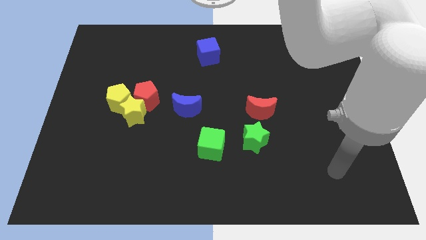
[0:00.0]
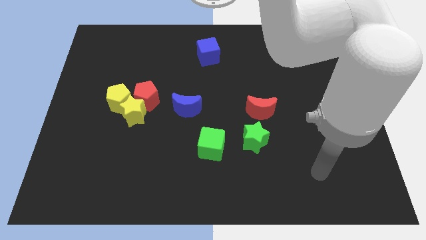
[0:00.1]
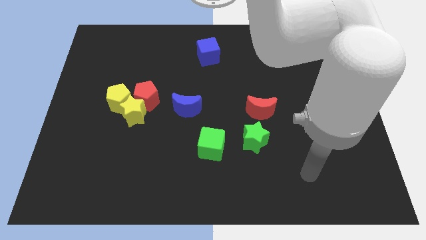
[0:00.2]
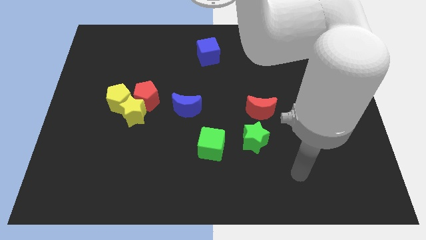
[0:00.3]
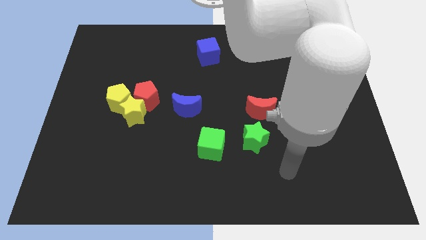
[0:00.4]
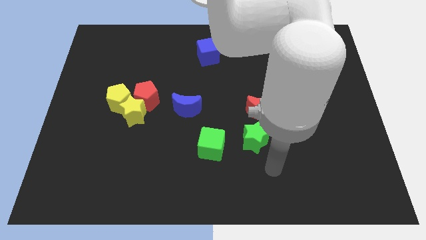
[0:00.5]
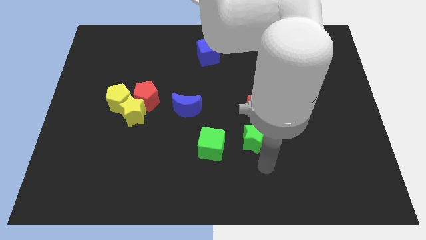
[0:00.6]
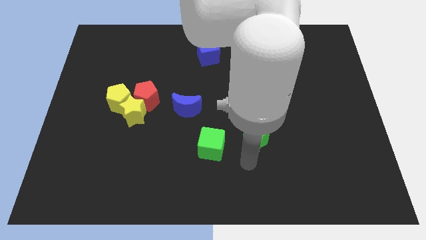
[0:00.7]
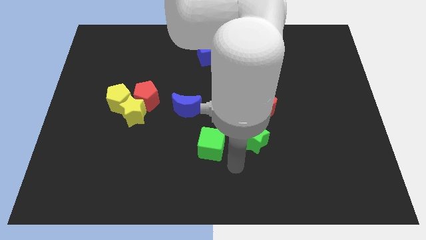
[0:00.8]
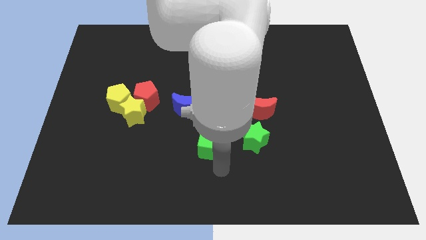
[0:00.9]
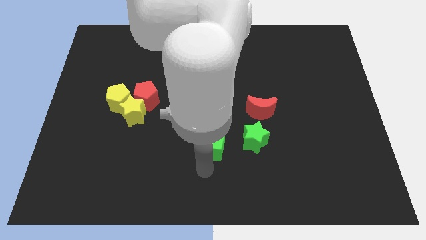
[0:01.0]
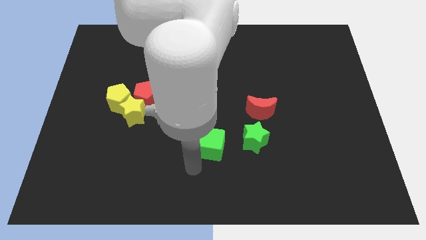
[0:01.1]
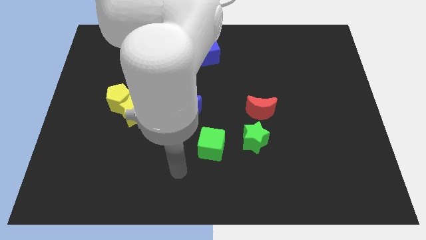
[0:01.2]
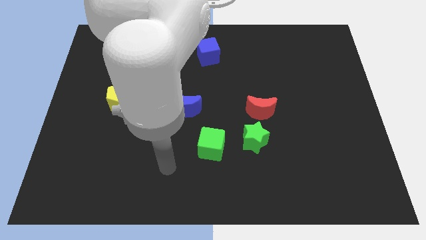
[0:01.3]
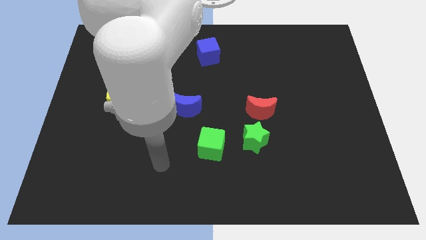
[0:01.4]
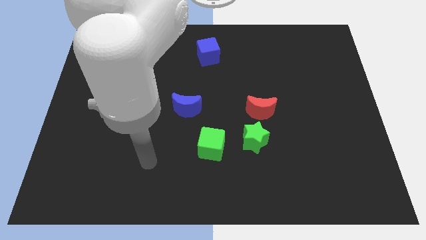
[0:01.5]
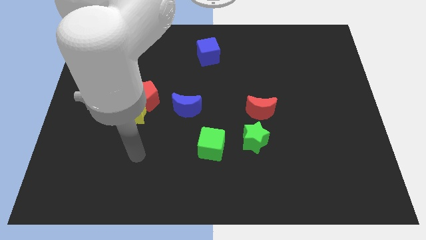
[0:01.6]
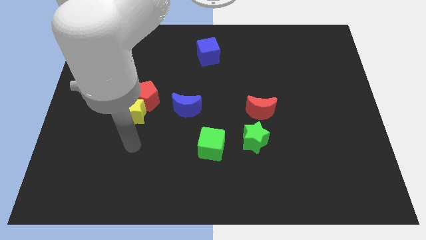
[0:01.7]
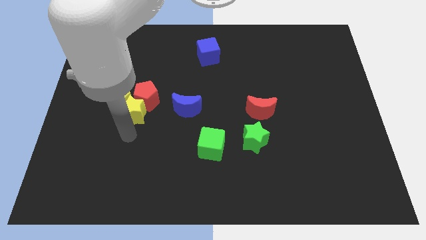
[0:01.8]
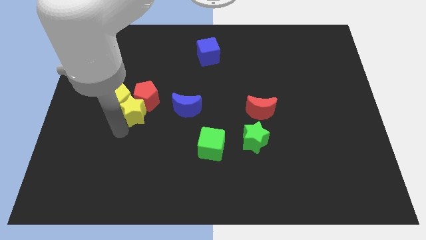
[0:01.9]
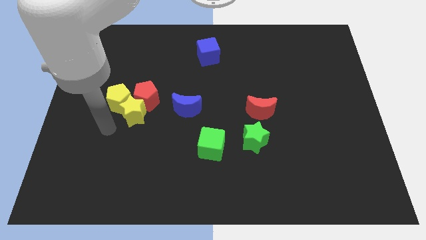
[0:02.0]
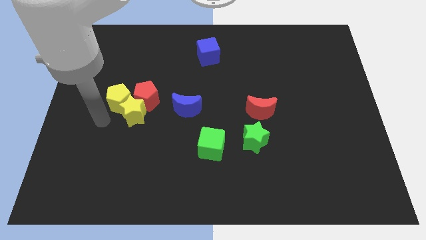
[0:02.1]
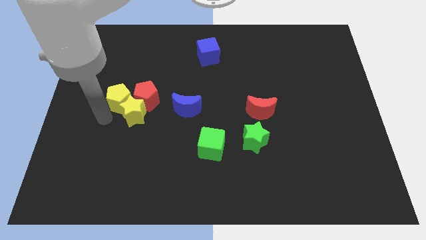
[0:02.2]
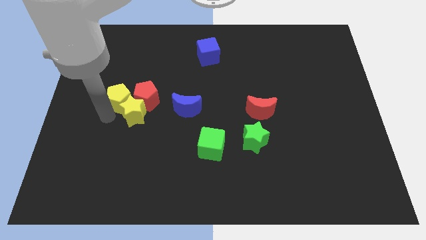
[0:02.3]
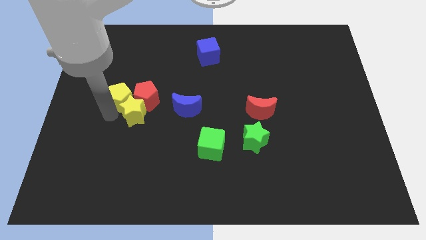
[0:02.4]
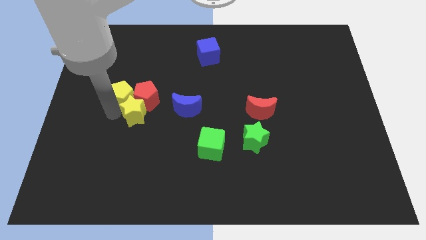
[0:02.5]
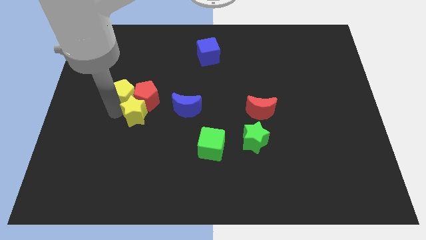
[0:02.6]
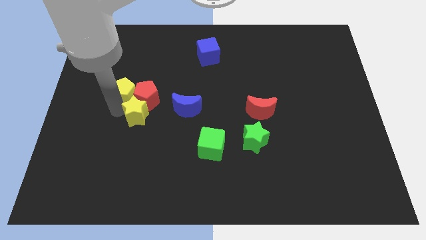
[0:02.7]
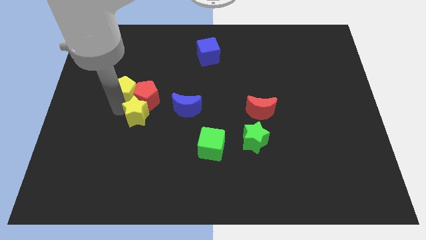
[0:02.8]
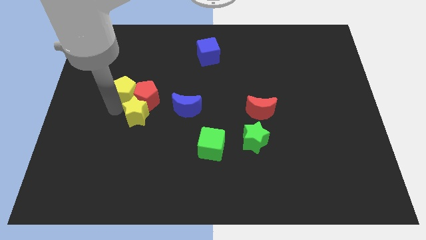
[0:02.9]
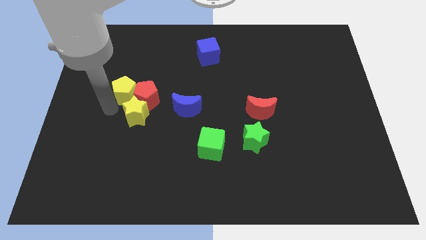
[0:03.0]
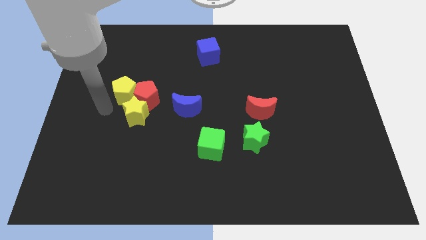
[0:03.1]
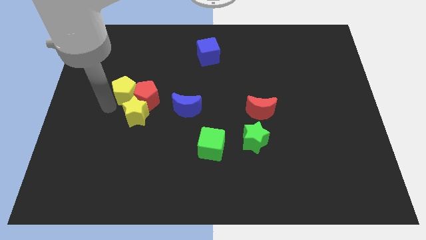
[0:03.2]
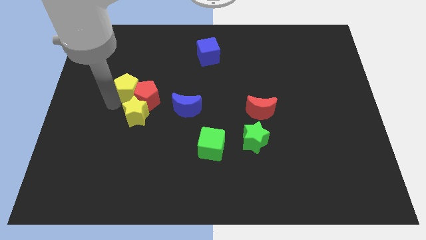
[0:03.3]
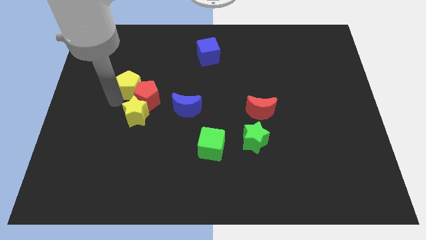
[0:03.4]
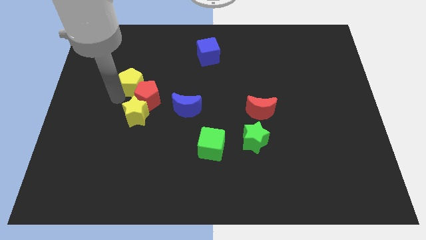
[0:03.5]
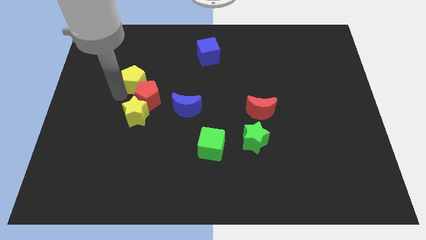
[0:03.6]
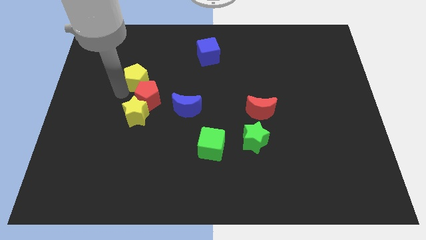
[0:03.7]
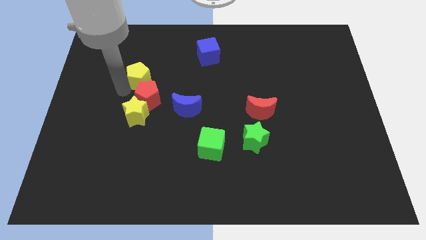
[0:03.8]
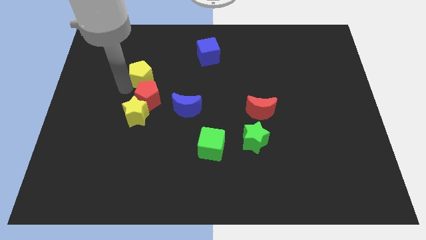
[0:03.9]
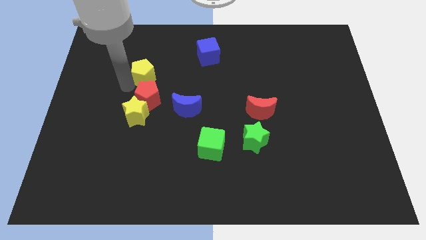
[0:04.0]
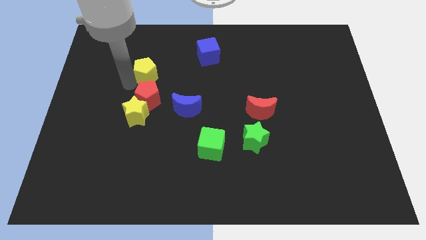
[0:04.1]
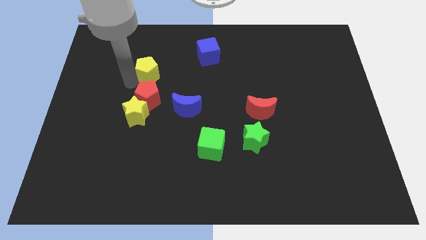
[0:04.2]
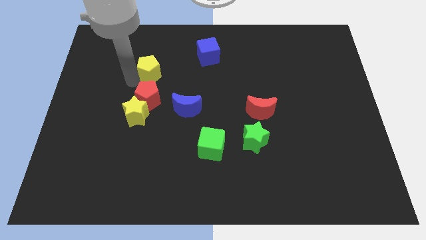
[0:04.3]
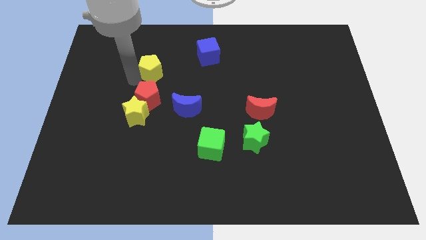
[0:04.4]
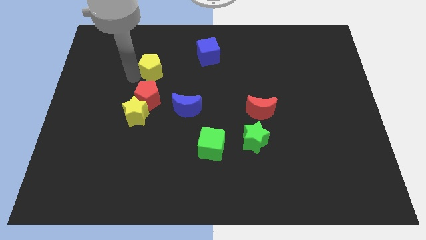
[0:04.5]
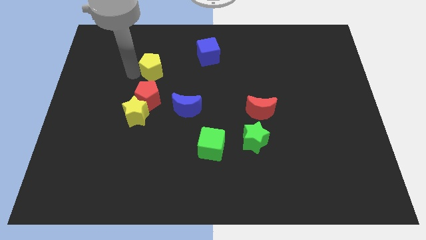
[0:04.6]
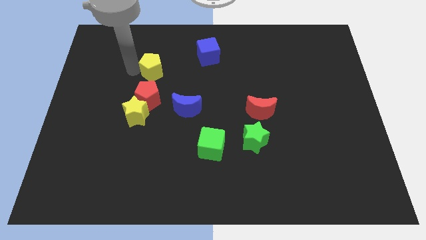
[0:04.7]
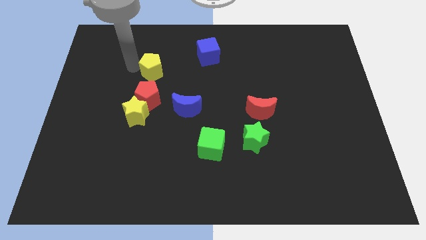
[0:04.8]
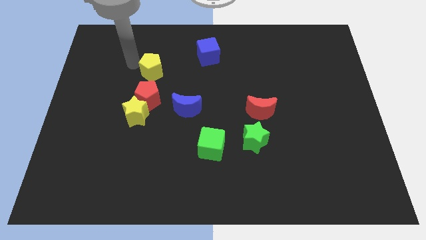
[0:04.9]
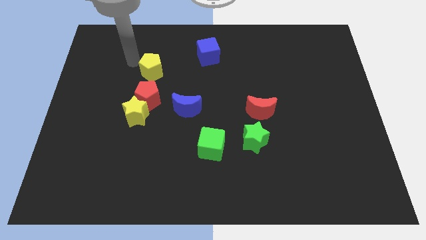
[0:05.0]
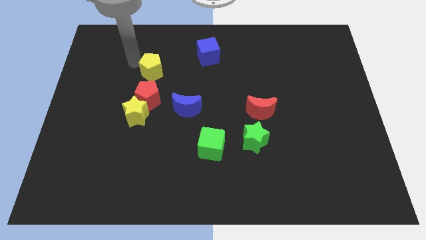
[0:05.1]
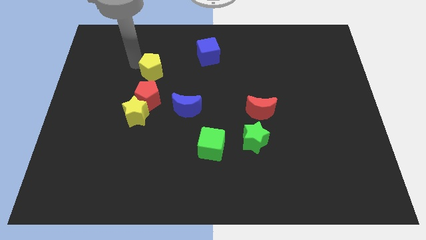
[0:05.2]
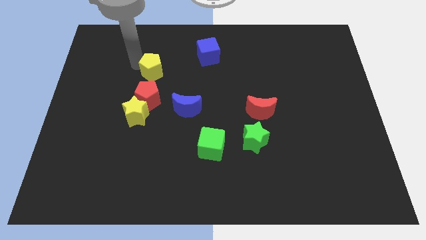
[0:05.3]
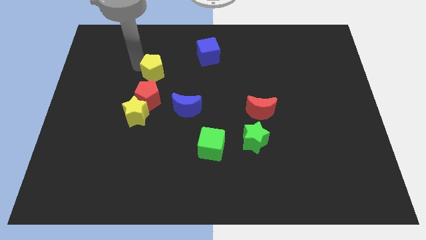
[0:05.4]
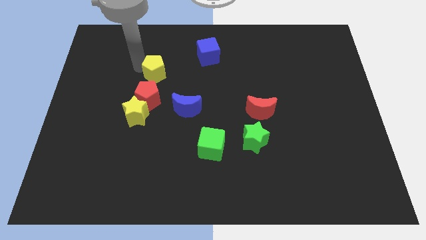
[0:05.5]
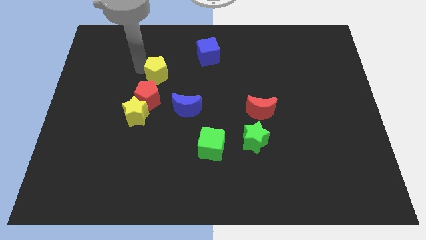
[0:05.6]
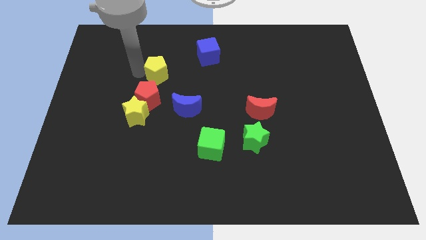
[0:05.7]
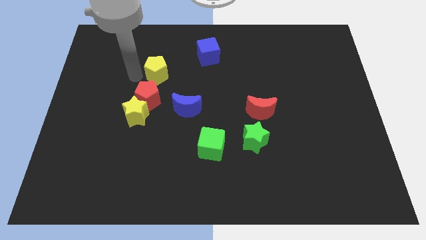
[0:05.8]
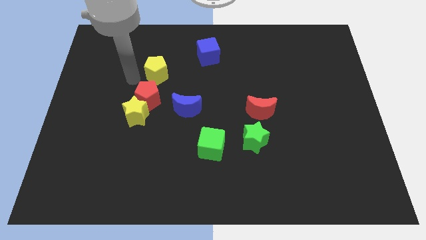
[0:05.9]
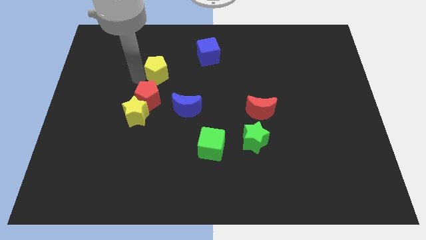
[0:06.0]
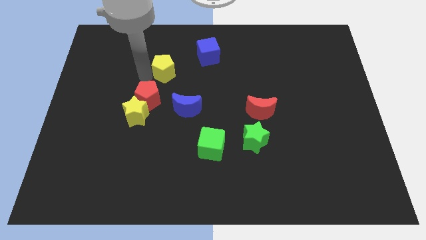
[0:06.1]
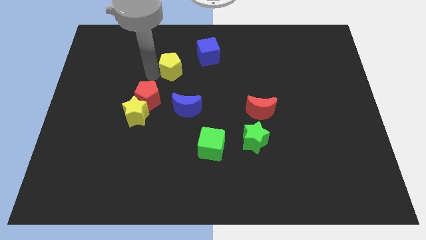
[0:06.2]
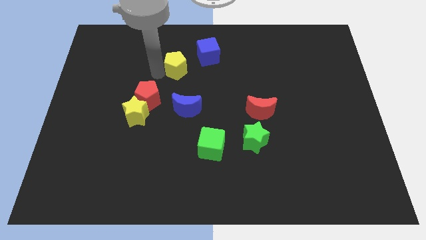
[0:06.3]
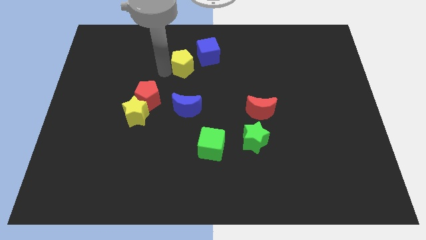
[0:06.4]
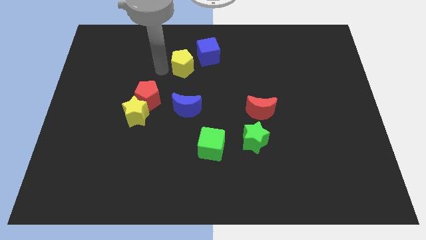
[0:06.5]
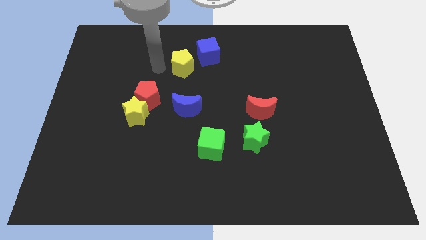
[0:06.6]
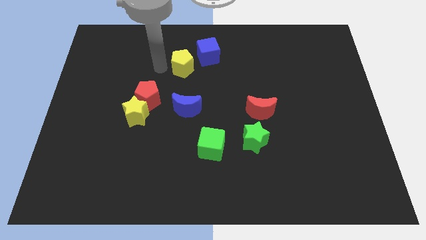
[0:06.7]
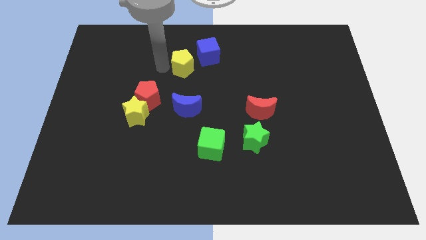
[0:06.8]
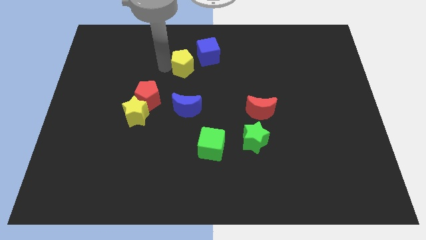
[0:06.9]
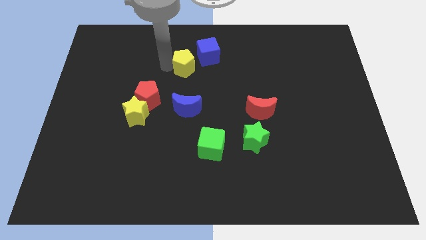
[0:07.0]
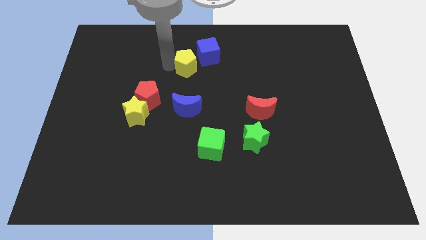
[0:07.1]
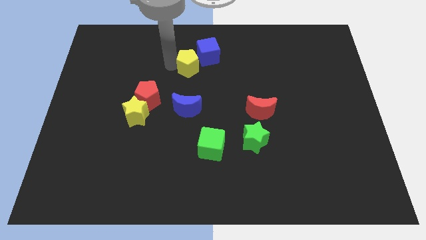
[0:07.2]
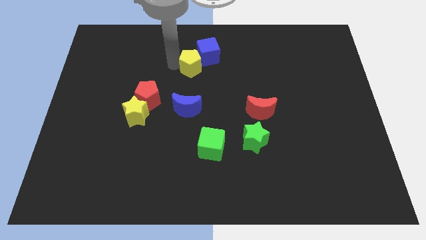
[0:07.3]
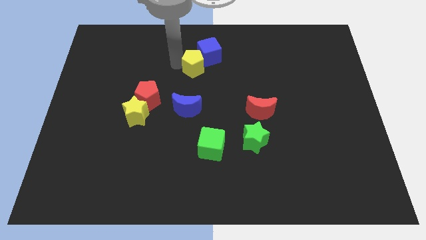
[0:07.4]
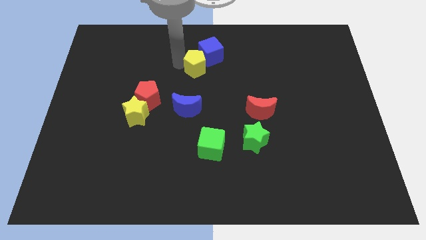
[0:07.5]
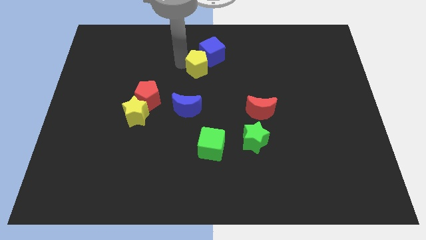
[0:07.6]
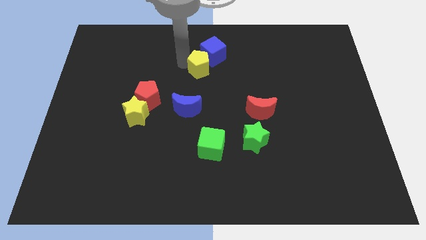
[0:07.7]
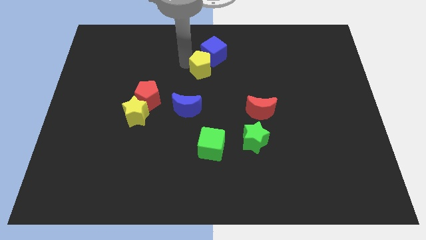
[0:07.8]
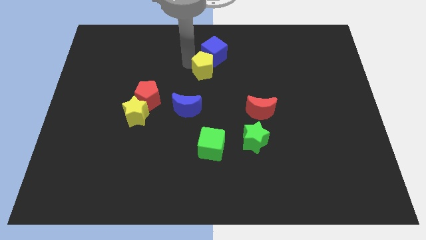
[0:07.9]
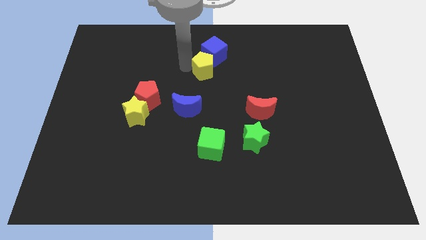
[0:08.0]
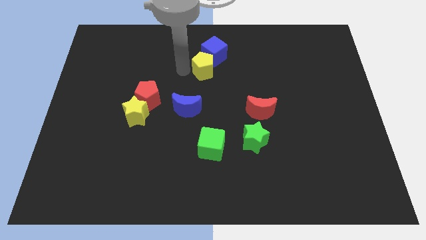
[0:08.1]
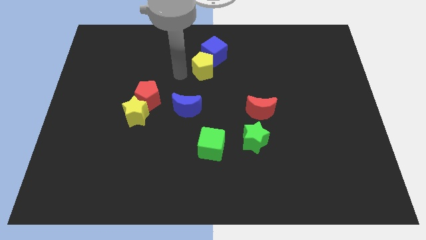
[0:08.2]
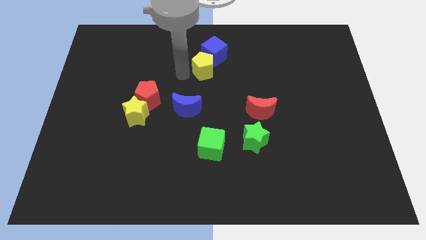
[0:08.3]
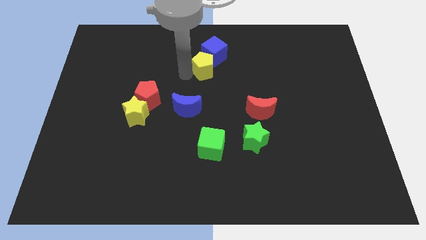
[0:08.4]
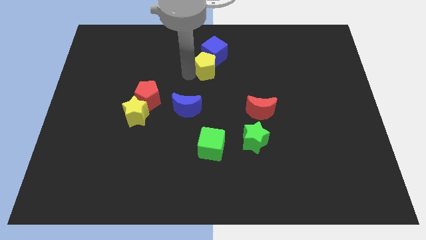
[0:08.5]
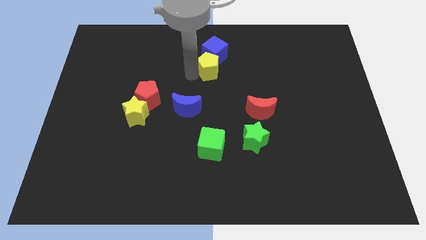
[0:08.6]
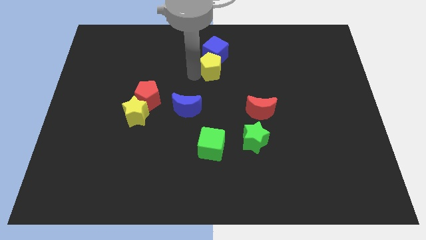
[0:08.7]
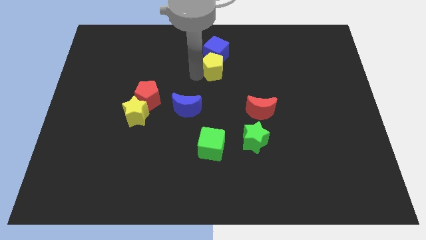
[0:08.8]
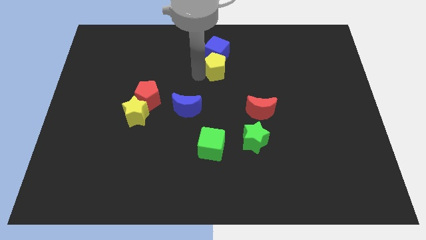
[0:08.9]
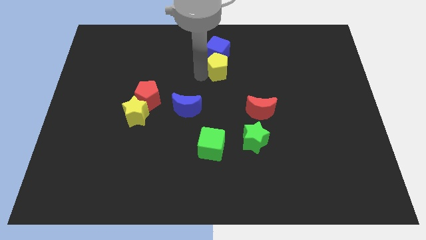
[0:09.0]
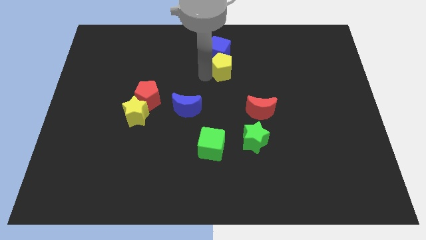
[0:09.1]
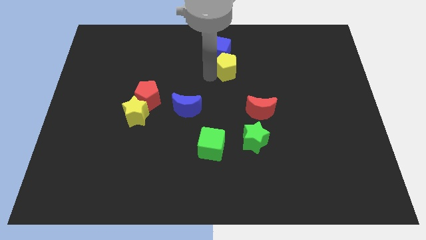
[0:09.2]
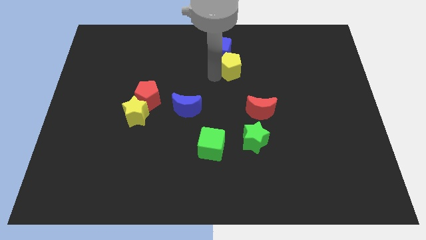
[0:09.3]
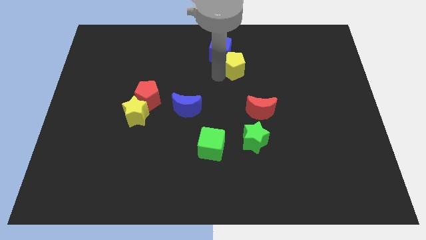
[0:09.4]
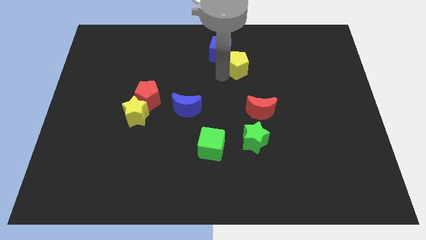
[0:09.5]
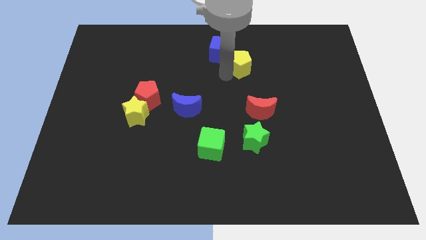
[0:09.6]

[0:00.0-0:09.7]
push the yellow pentagon to the right side of the blue cube
